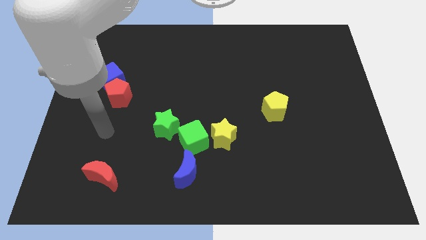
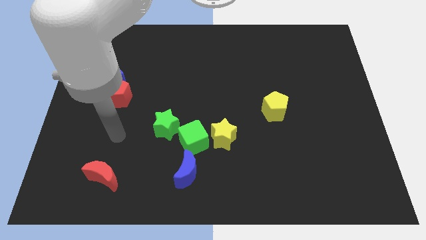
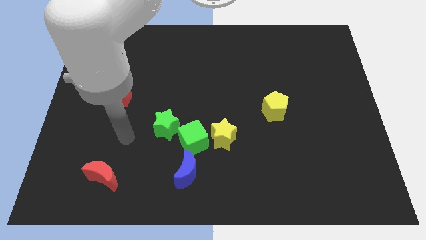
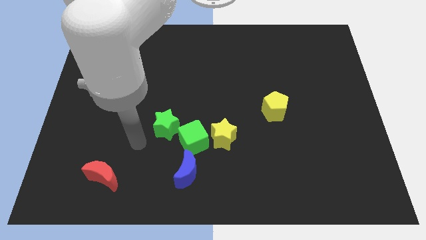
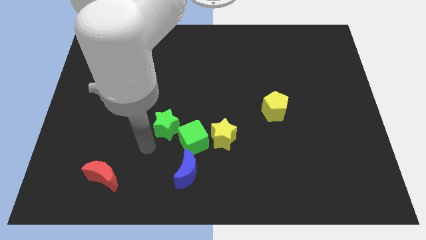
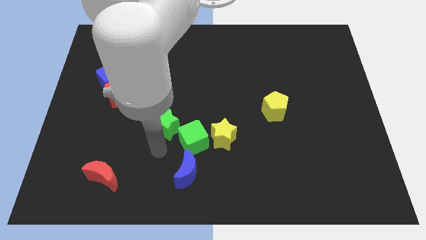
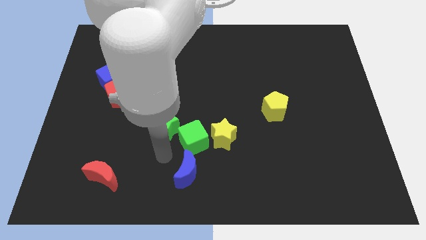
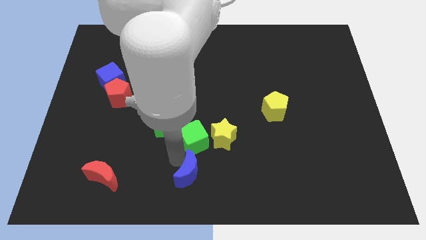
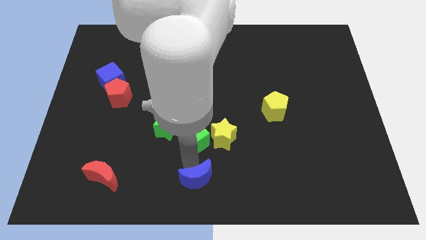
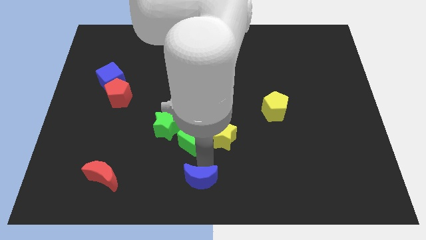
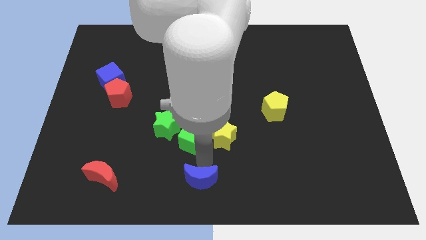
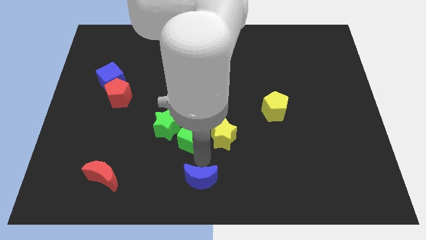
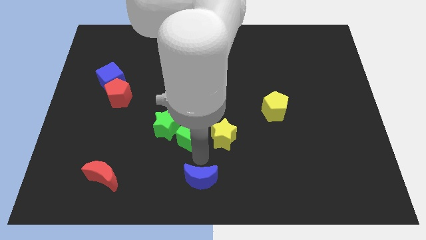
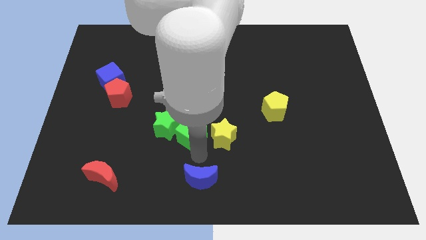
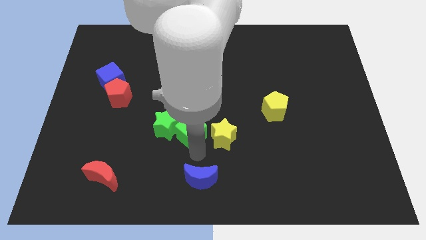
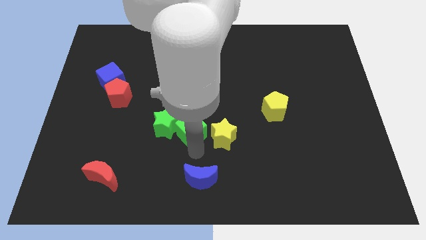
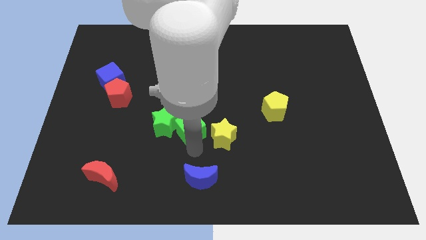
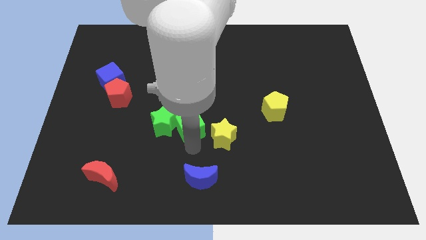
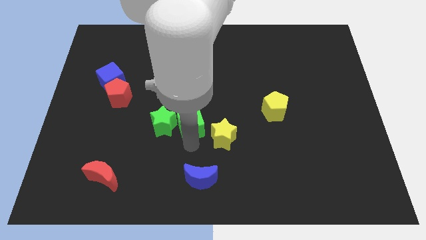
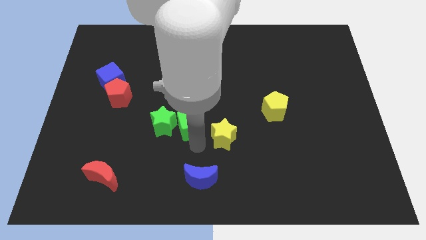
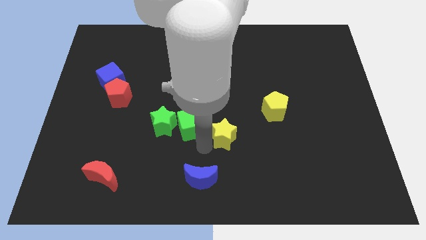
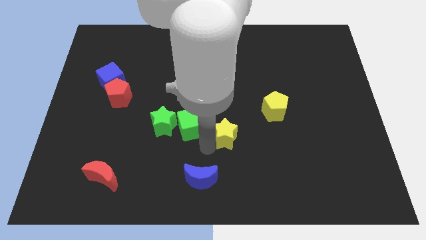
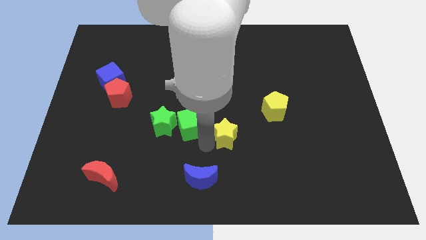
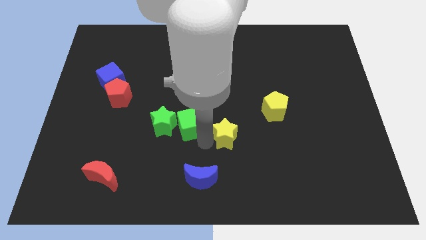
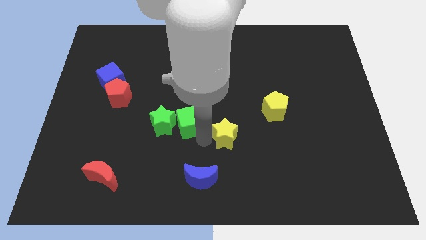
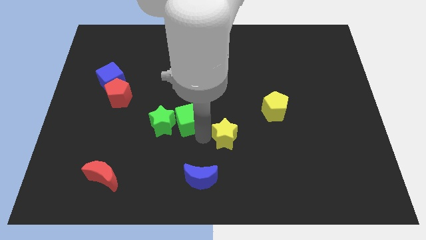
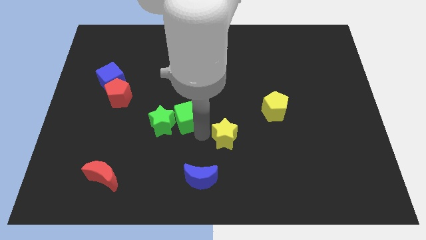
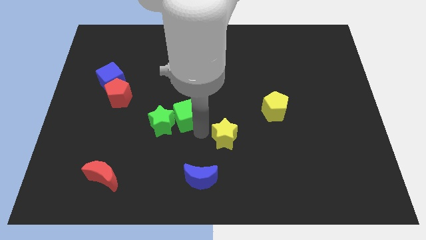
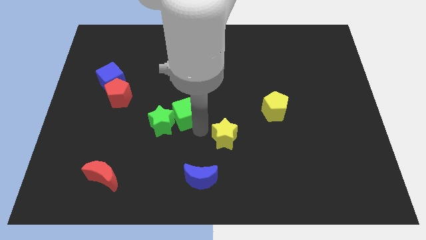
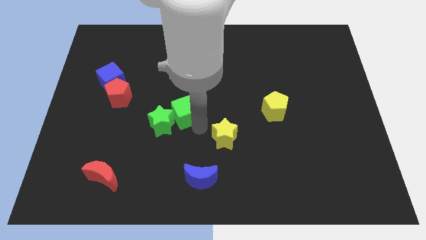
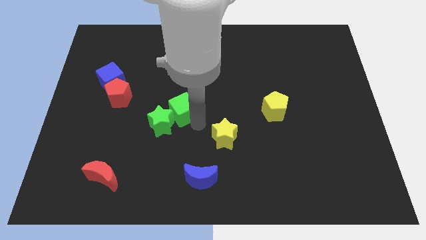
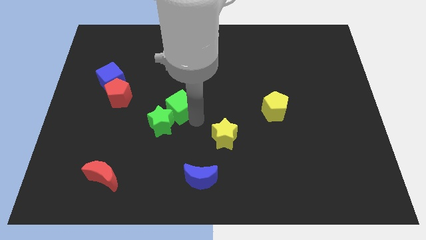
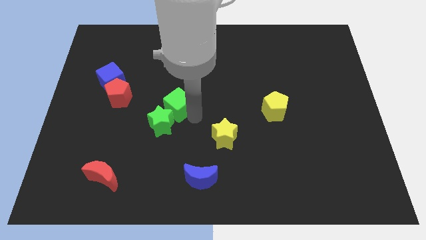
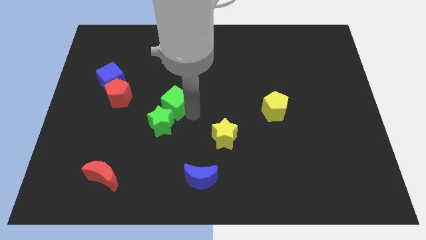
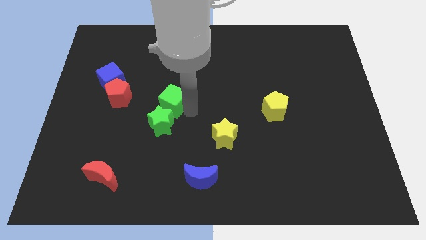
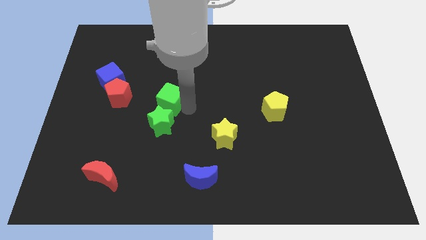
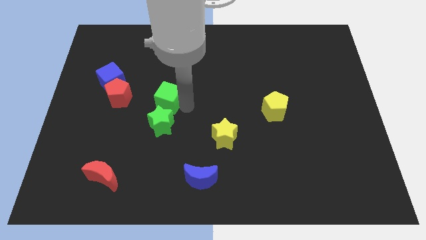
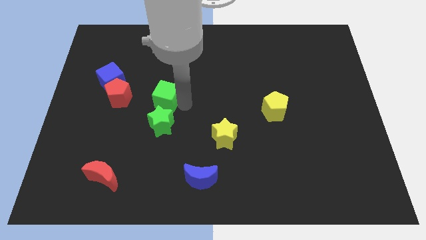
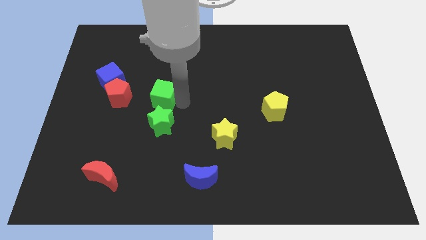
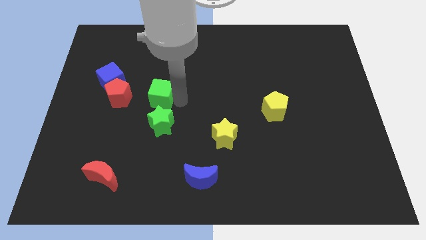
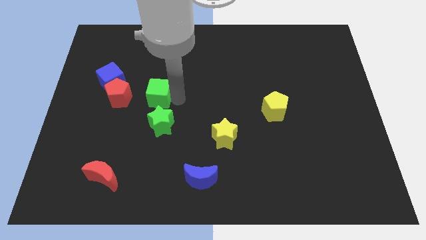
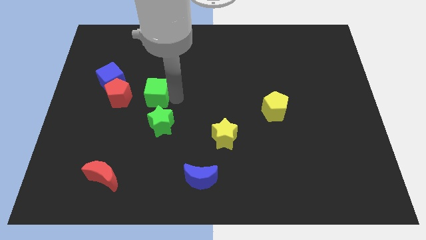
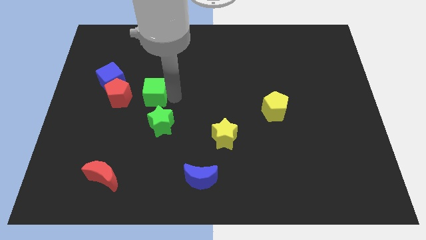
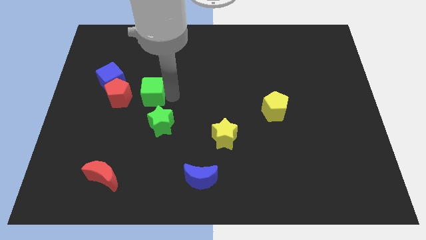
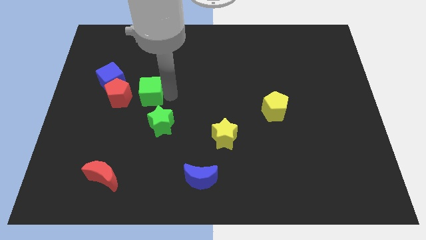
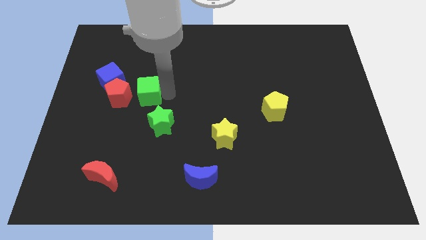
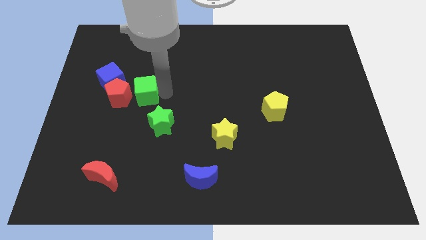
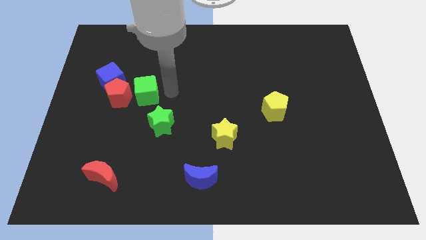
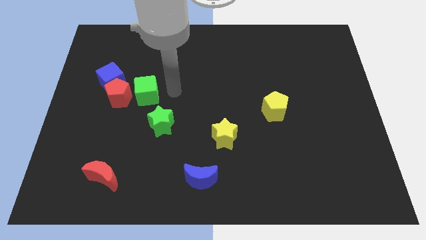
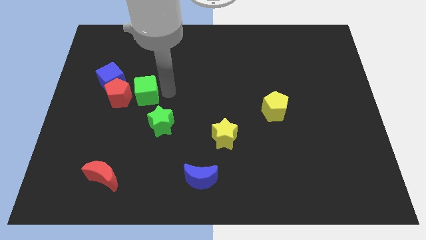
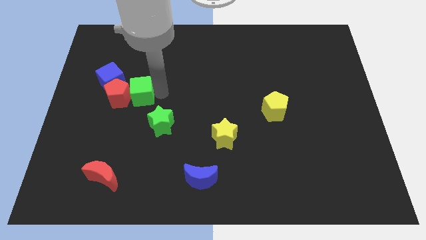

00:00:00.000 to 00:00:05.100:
put the green cube to the red pentagon

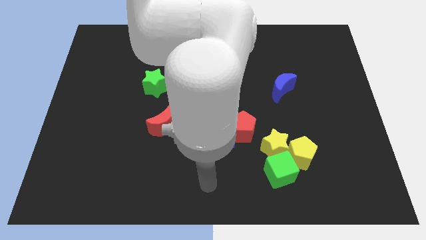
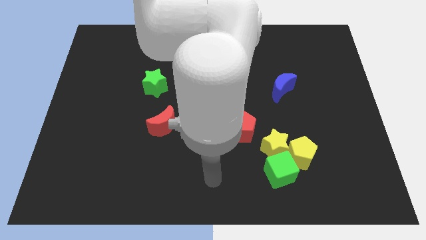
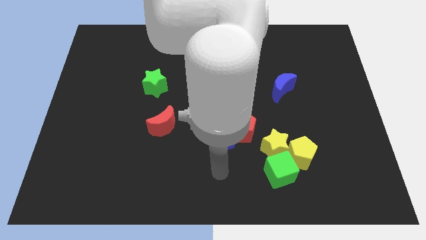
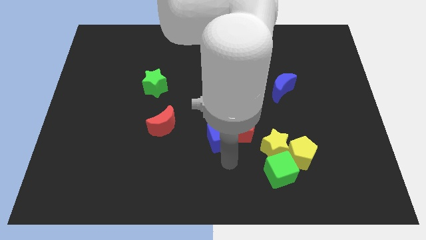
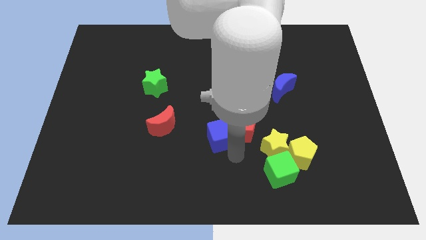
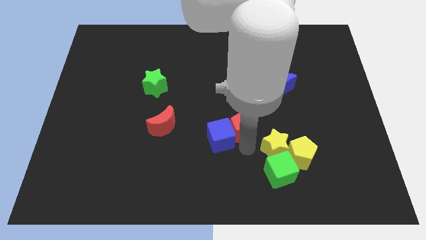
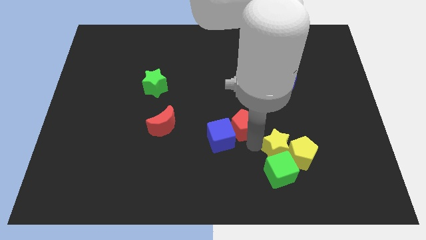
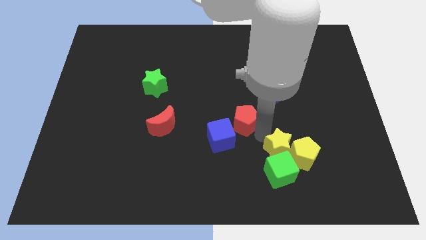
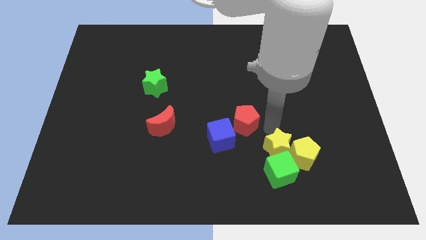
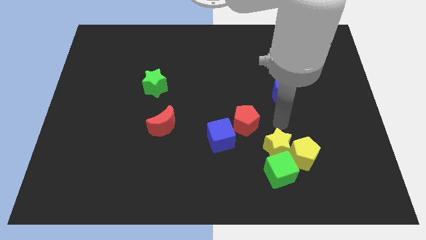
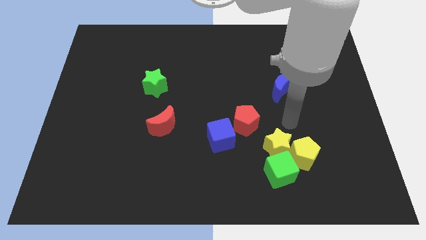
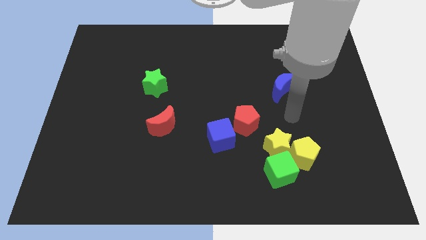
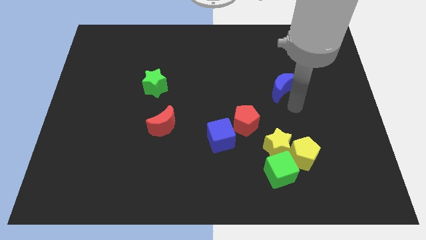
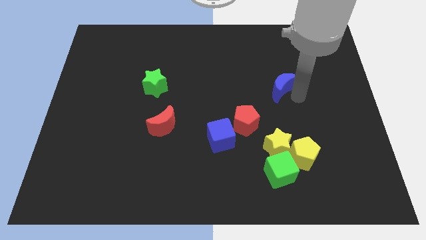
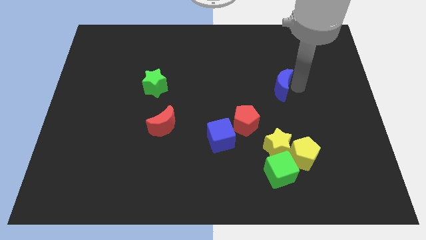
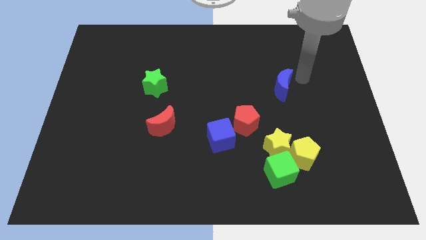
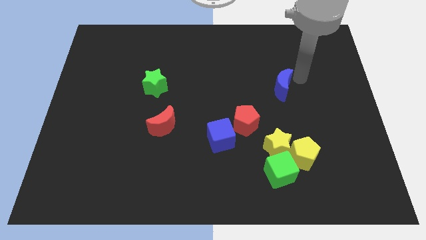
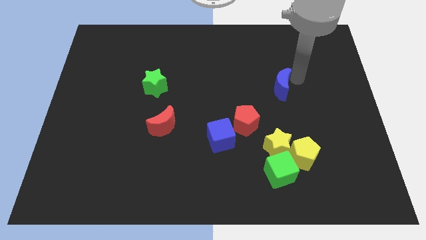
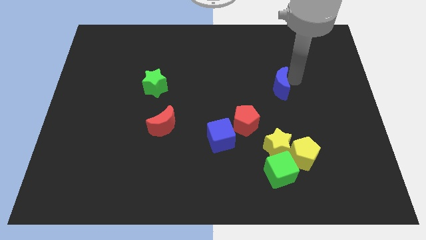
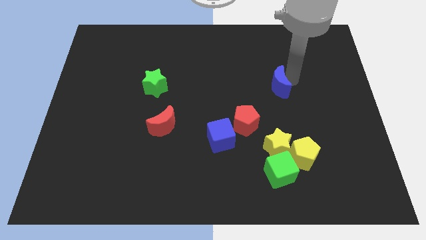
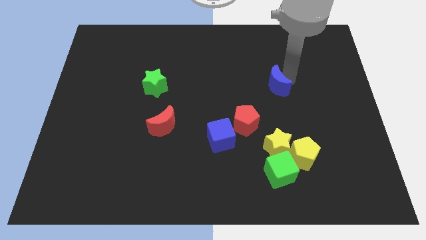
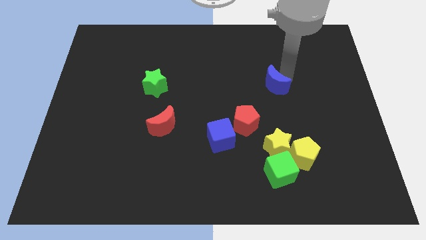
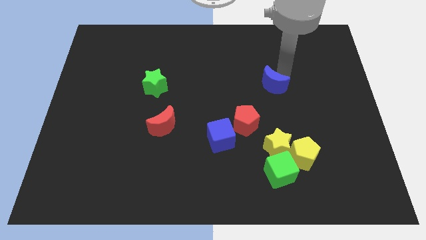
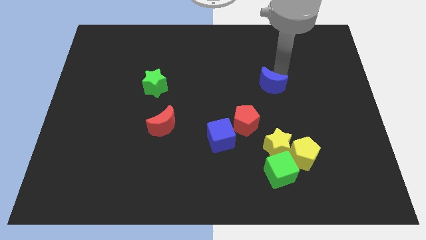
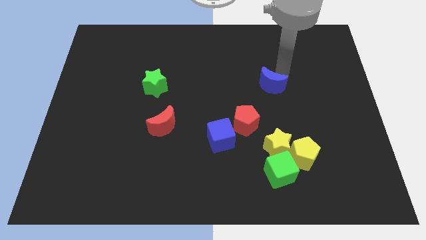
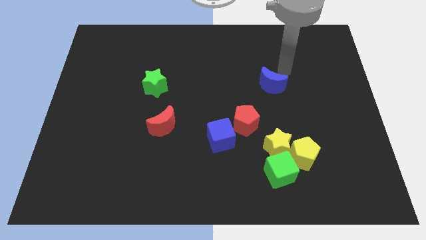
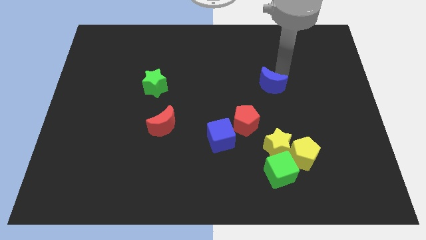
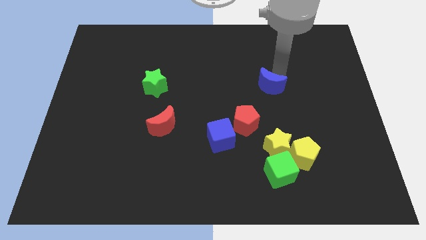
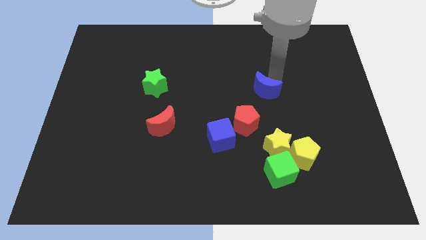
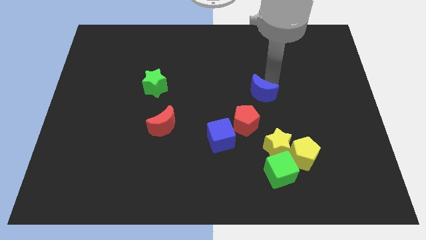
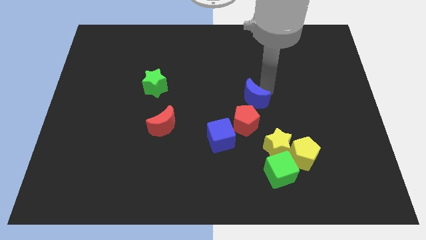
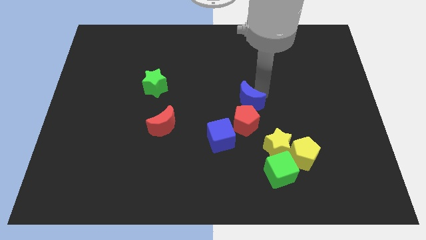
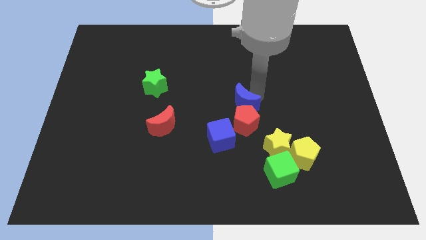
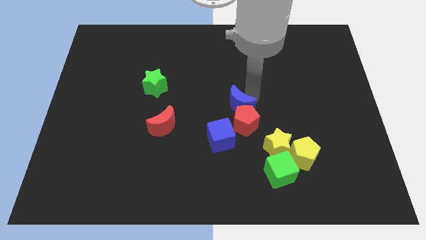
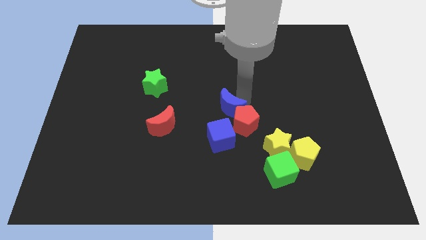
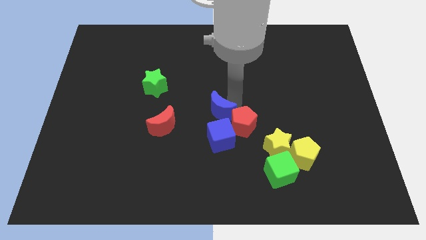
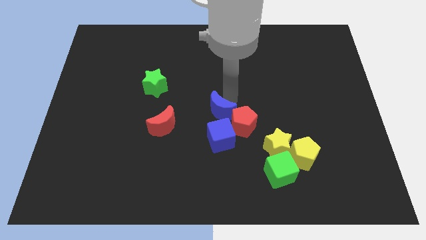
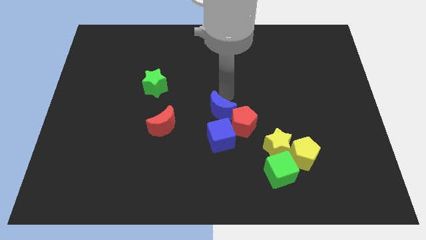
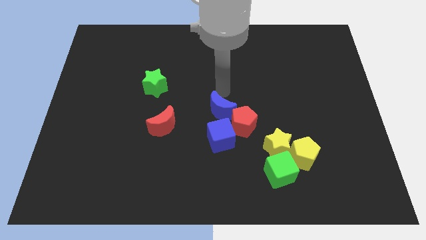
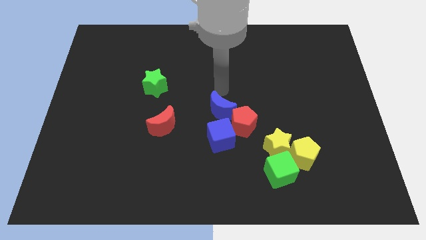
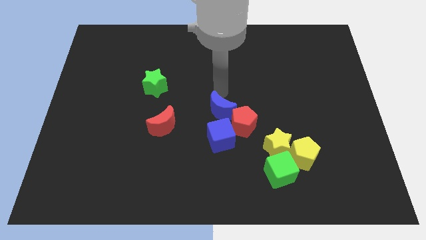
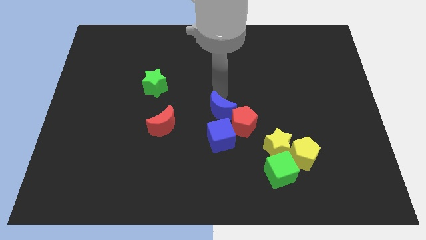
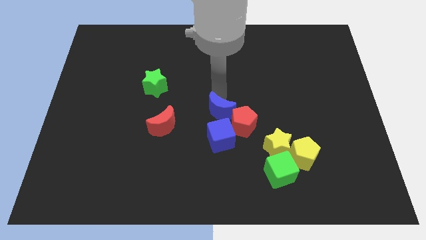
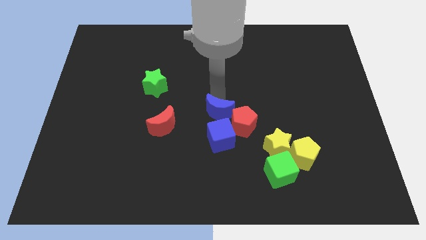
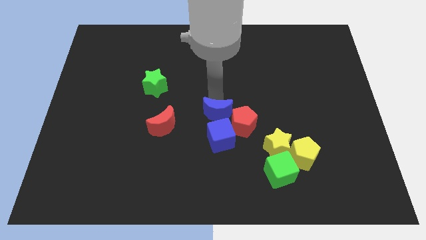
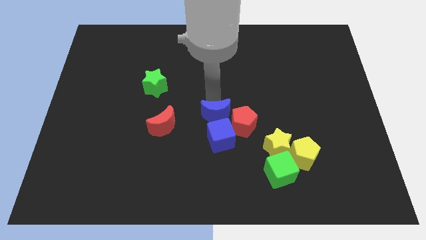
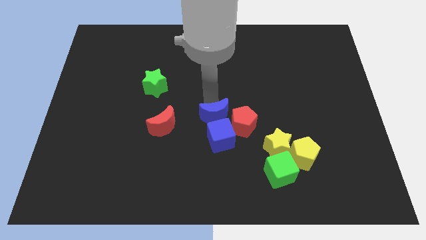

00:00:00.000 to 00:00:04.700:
slide the blue moon next to the blue cube
